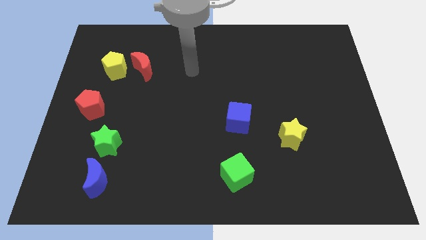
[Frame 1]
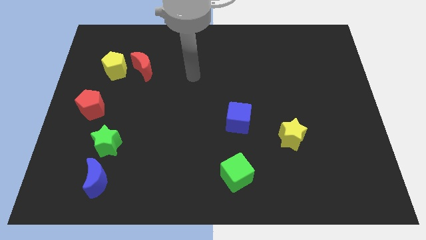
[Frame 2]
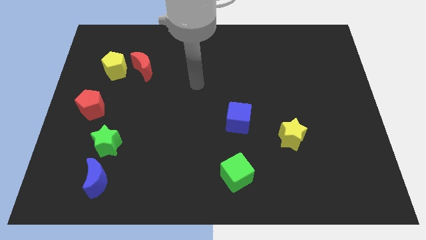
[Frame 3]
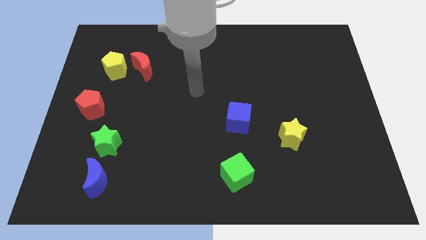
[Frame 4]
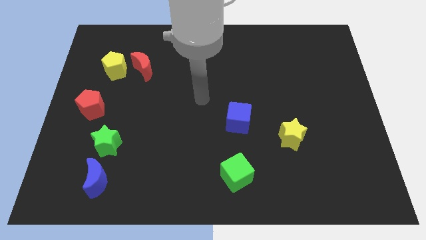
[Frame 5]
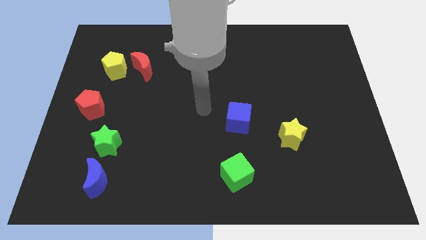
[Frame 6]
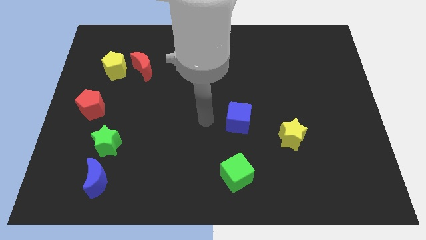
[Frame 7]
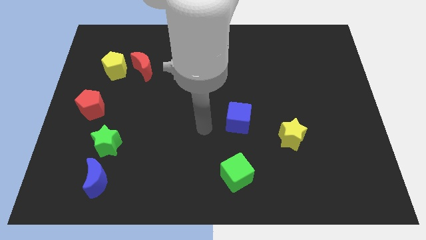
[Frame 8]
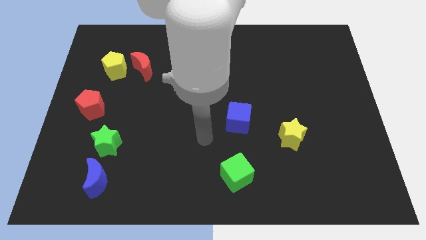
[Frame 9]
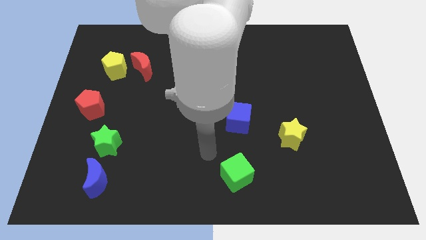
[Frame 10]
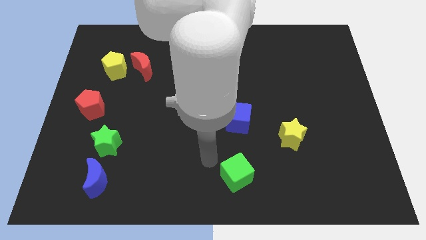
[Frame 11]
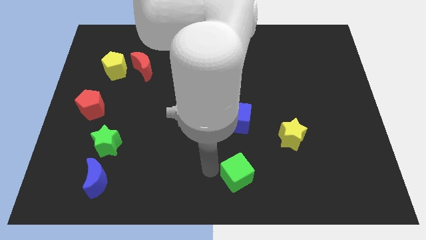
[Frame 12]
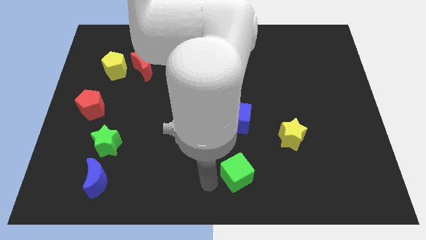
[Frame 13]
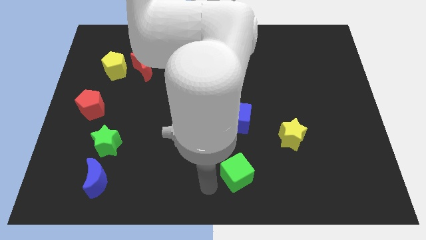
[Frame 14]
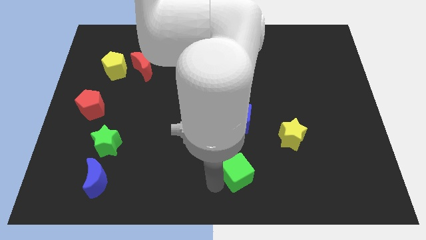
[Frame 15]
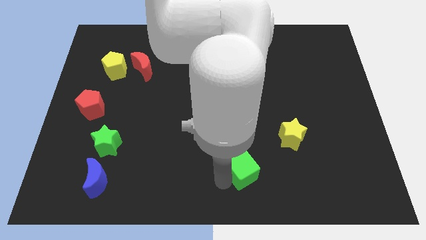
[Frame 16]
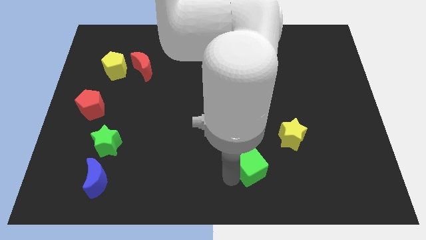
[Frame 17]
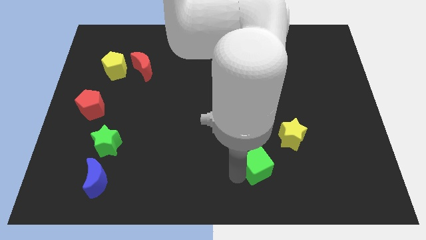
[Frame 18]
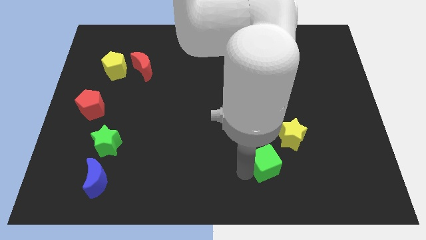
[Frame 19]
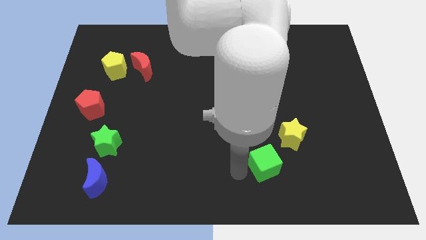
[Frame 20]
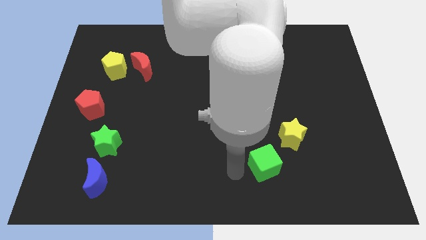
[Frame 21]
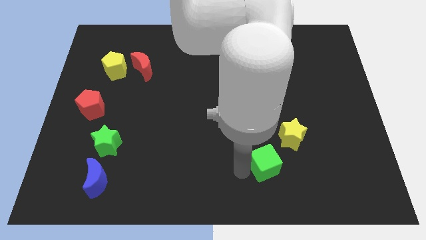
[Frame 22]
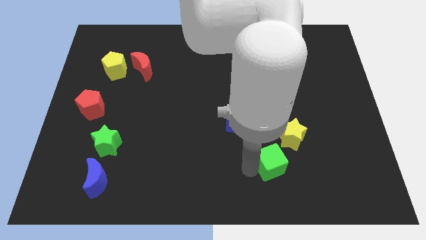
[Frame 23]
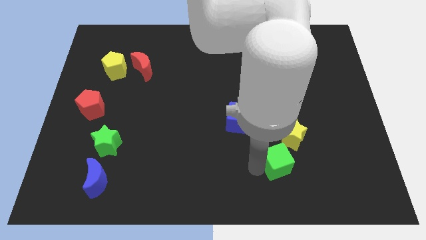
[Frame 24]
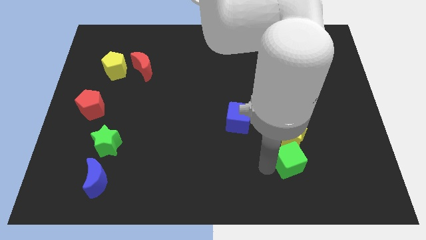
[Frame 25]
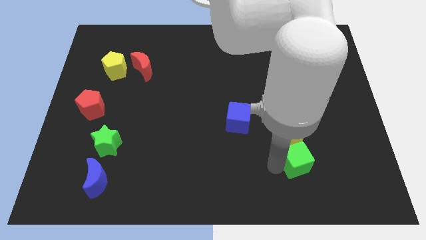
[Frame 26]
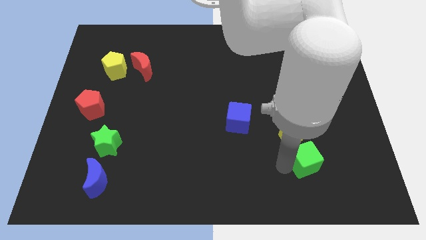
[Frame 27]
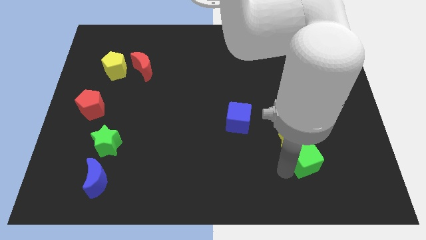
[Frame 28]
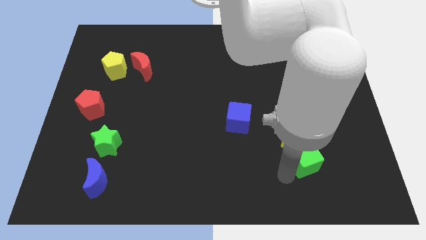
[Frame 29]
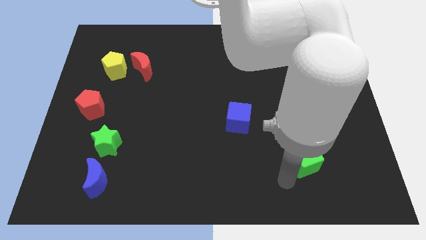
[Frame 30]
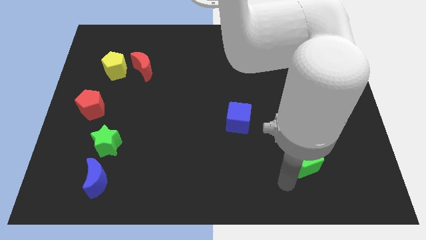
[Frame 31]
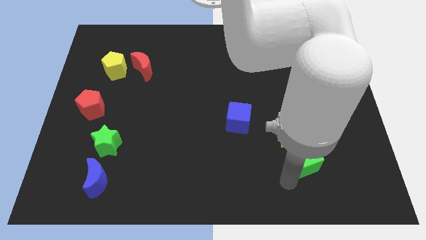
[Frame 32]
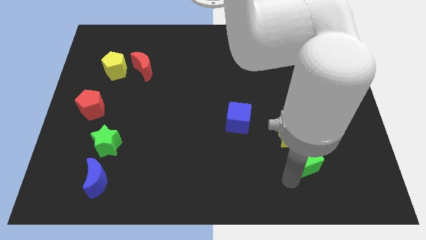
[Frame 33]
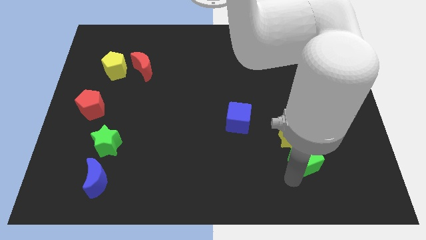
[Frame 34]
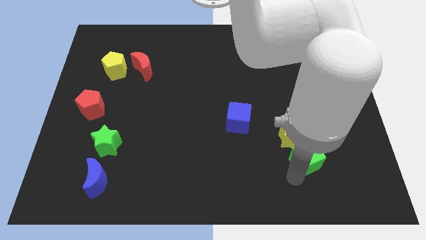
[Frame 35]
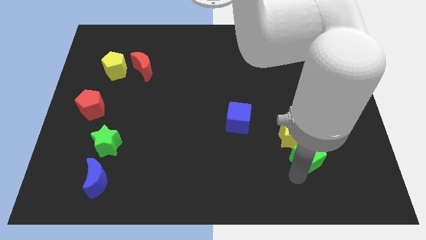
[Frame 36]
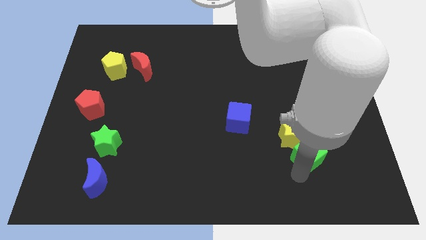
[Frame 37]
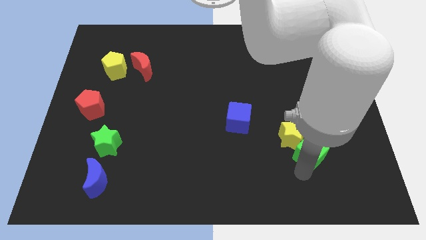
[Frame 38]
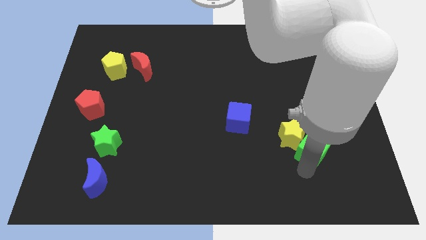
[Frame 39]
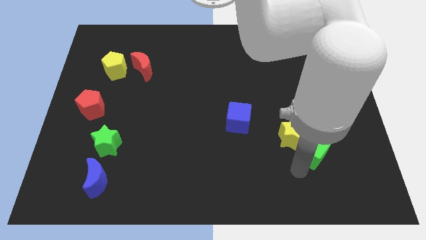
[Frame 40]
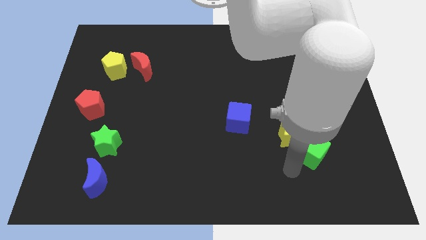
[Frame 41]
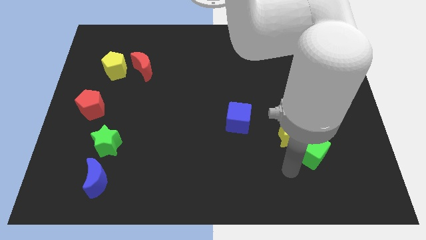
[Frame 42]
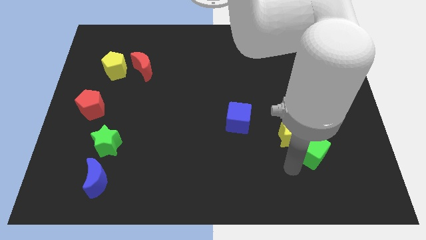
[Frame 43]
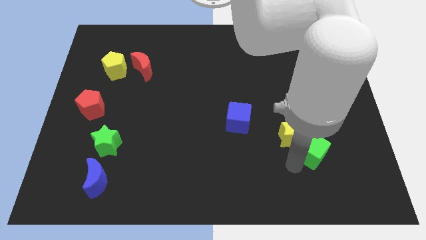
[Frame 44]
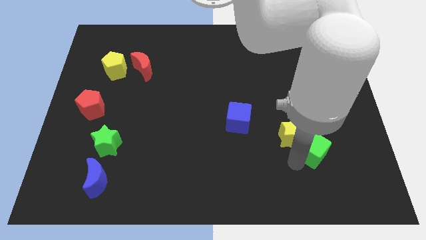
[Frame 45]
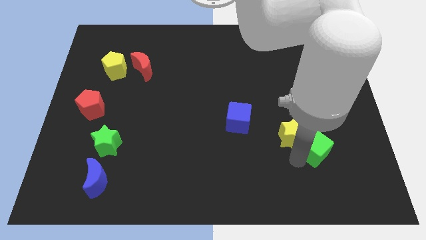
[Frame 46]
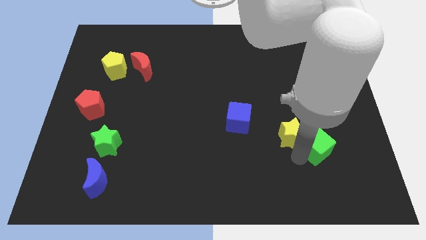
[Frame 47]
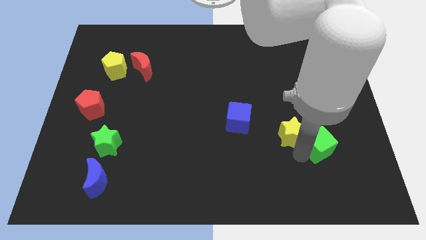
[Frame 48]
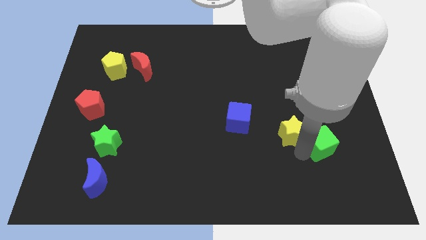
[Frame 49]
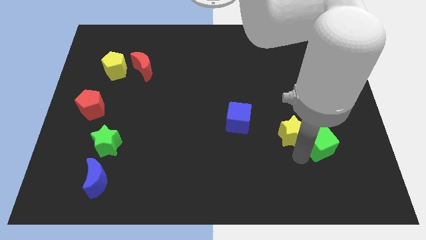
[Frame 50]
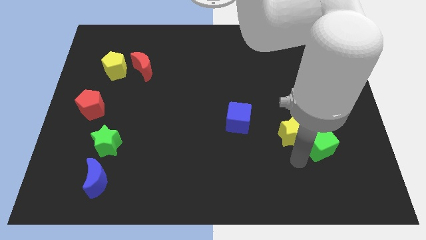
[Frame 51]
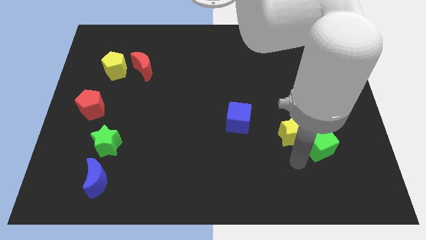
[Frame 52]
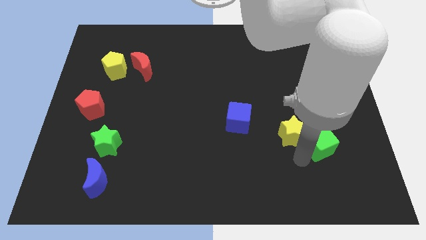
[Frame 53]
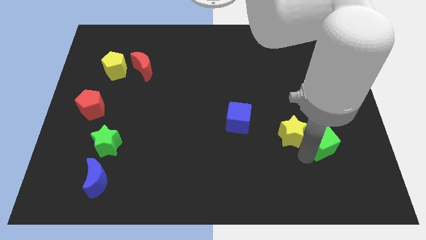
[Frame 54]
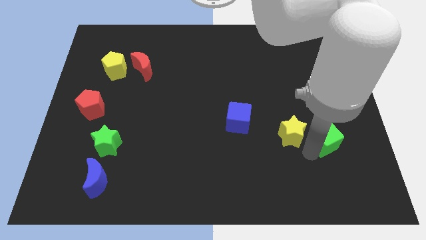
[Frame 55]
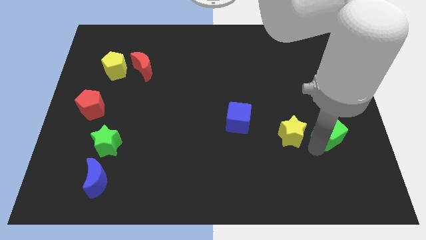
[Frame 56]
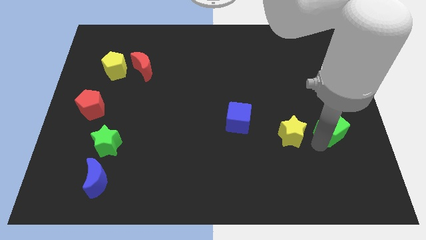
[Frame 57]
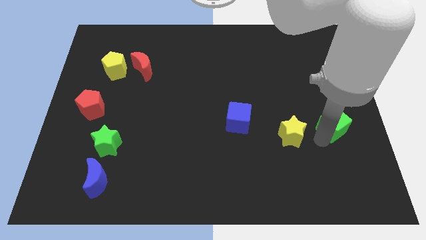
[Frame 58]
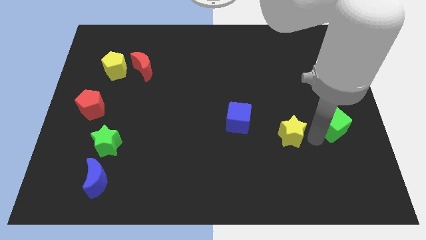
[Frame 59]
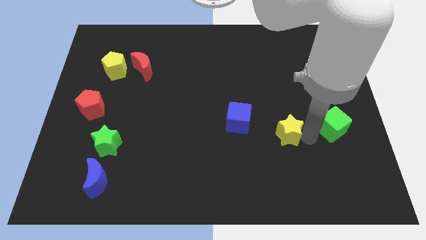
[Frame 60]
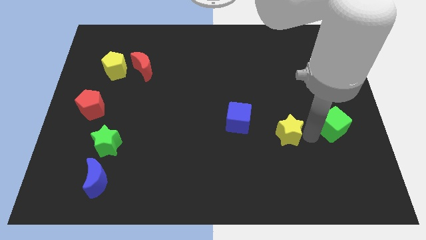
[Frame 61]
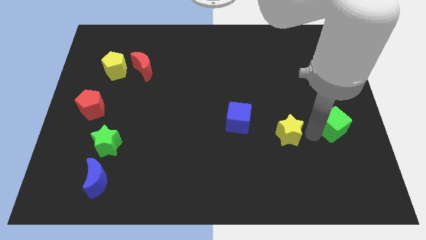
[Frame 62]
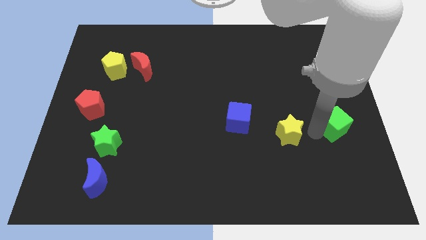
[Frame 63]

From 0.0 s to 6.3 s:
put the green cube to the right side of the board

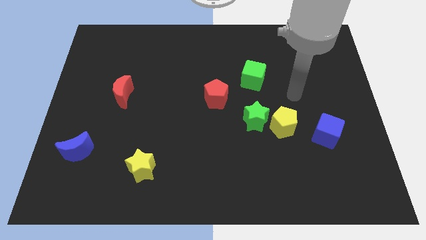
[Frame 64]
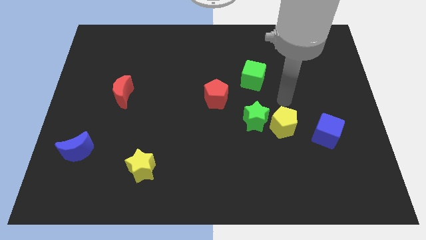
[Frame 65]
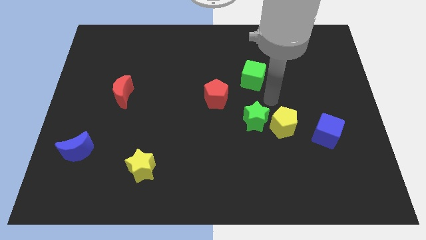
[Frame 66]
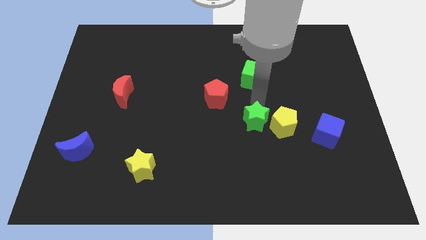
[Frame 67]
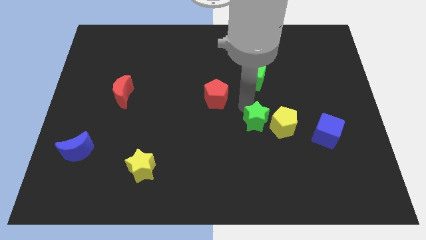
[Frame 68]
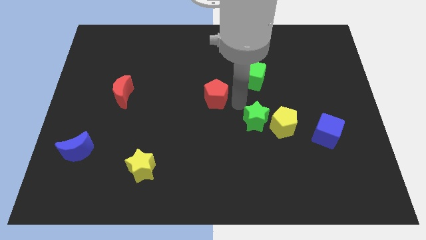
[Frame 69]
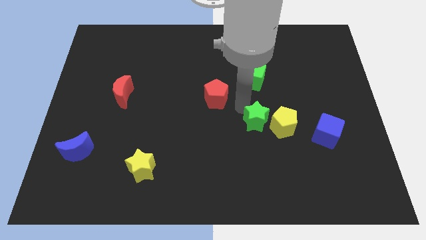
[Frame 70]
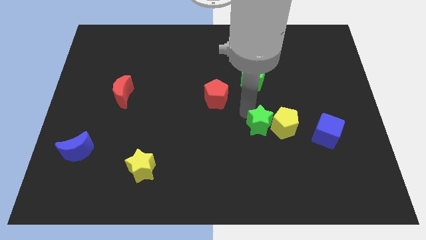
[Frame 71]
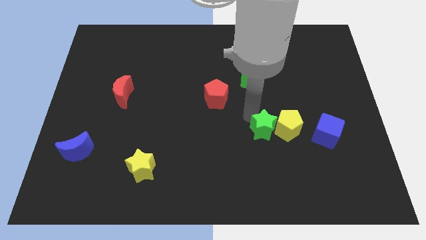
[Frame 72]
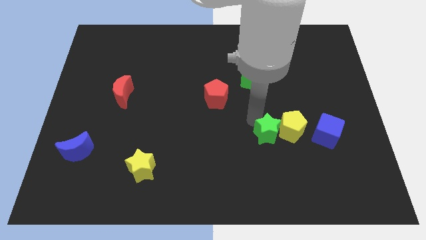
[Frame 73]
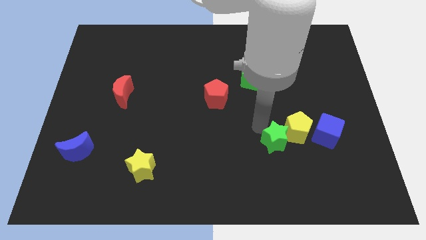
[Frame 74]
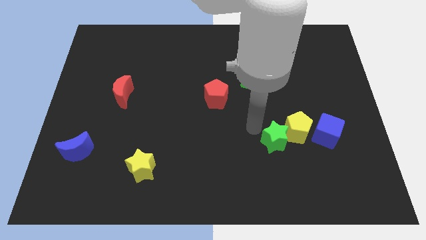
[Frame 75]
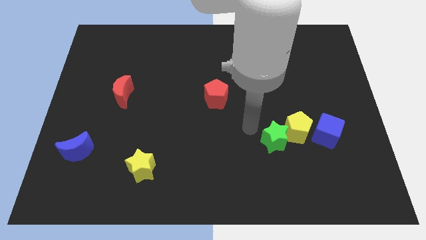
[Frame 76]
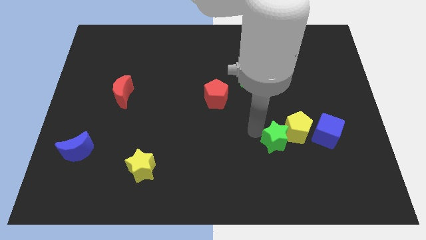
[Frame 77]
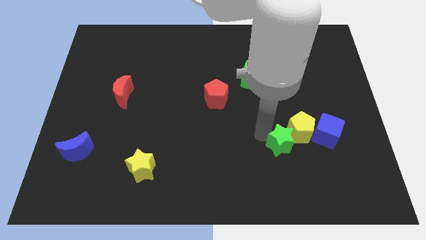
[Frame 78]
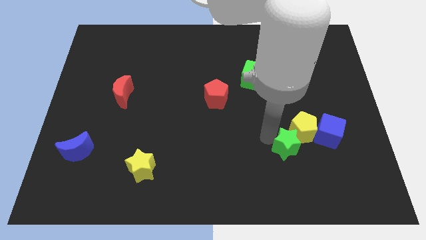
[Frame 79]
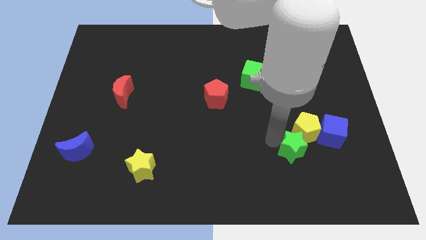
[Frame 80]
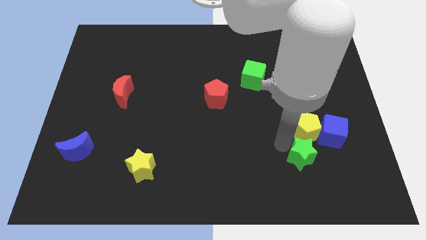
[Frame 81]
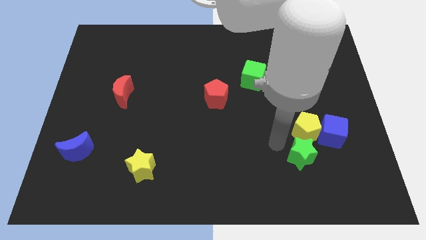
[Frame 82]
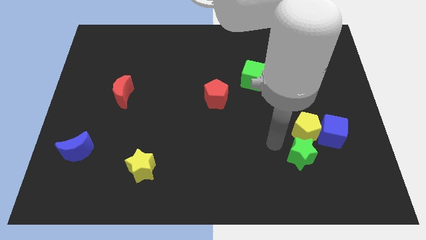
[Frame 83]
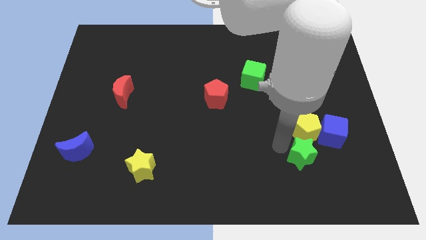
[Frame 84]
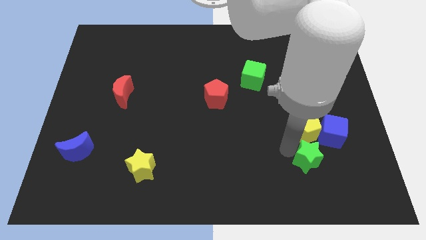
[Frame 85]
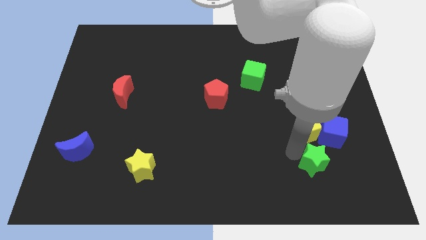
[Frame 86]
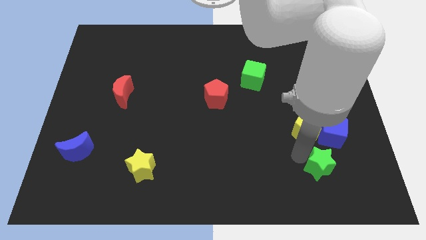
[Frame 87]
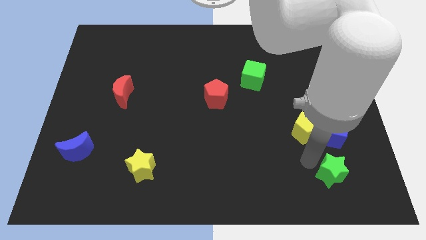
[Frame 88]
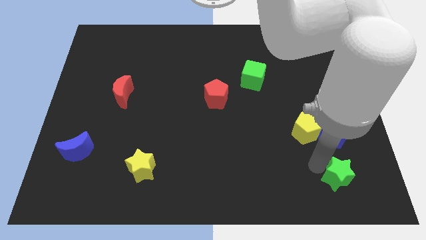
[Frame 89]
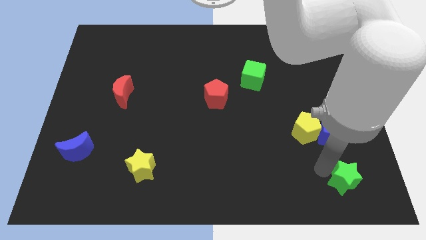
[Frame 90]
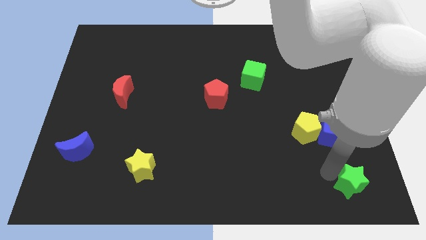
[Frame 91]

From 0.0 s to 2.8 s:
move the green star to the bottom right
